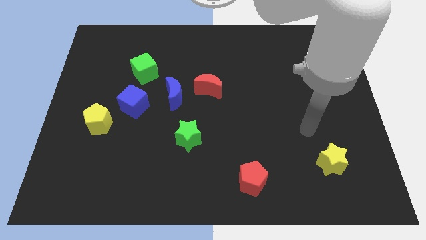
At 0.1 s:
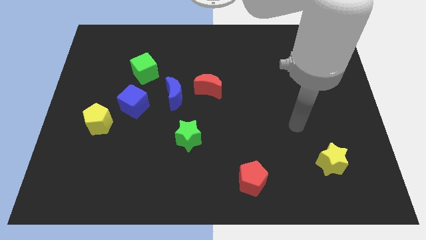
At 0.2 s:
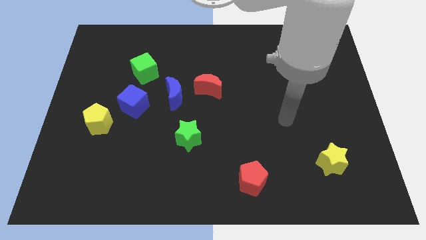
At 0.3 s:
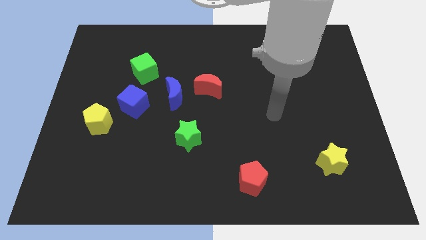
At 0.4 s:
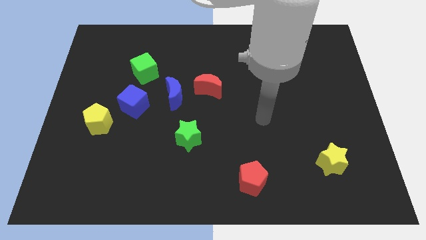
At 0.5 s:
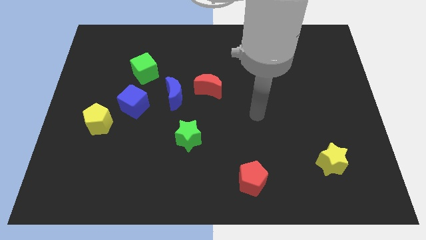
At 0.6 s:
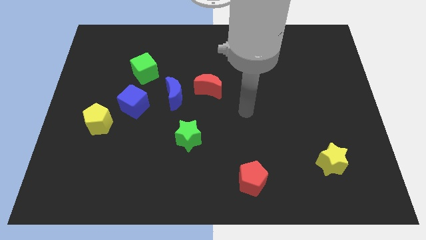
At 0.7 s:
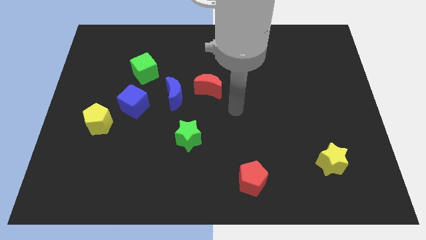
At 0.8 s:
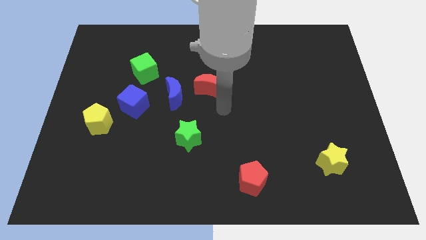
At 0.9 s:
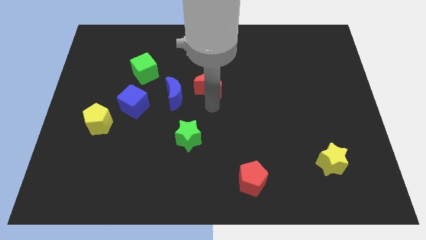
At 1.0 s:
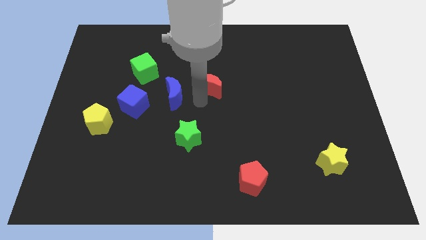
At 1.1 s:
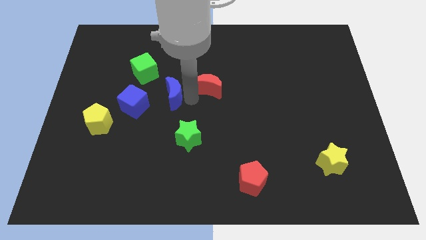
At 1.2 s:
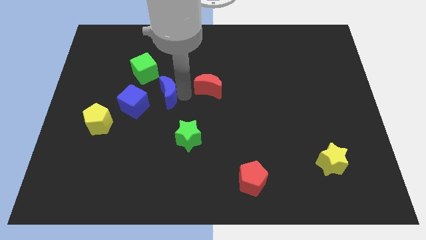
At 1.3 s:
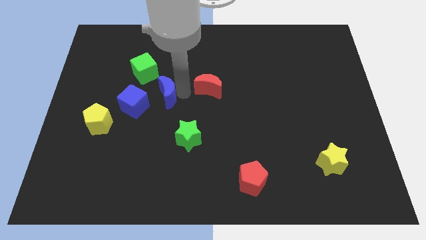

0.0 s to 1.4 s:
separate the red moon from the blue moon

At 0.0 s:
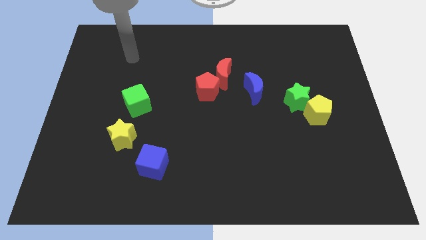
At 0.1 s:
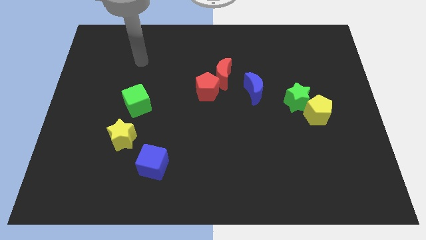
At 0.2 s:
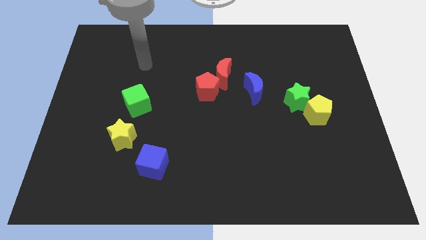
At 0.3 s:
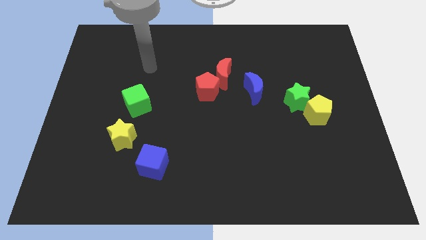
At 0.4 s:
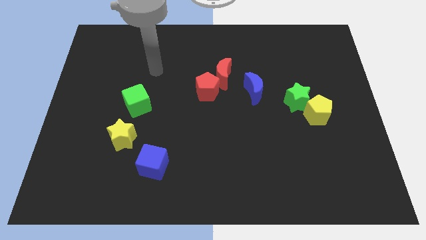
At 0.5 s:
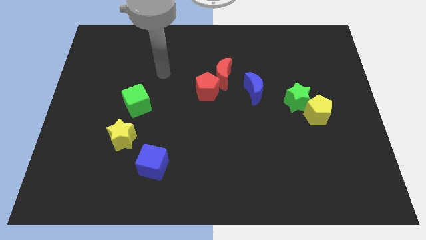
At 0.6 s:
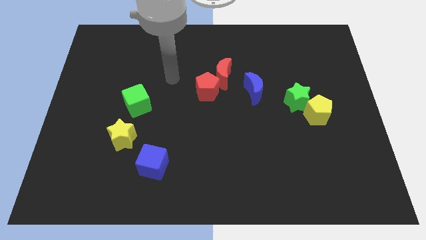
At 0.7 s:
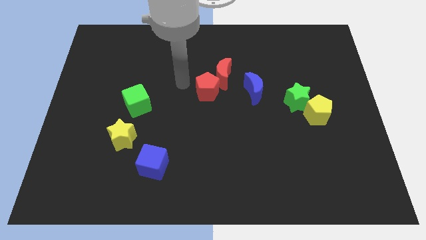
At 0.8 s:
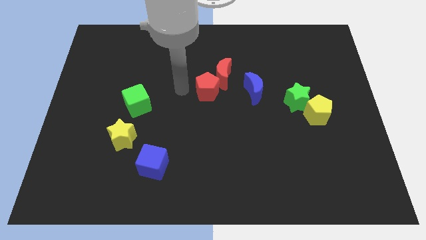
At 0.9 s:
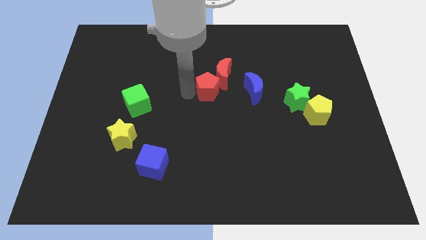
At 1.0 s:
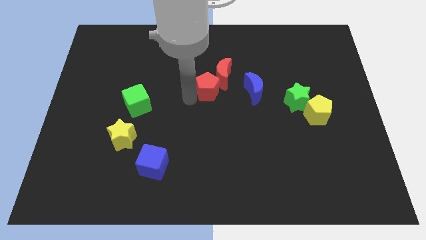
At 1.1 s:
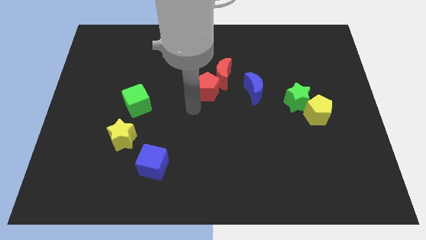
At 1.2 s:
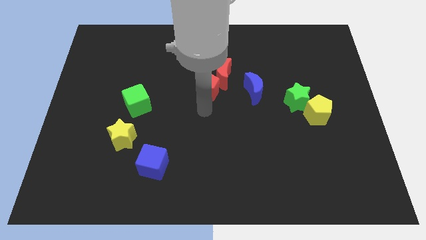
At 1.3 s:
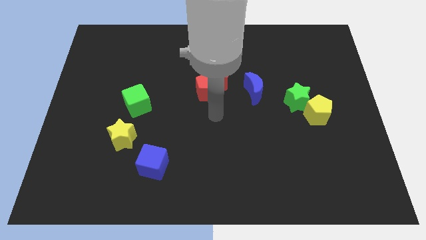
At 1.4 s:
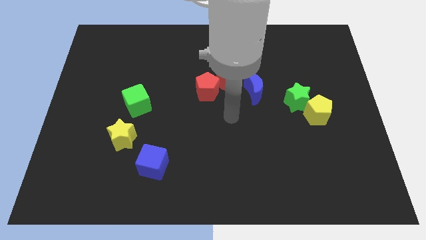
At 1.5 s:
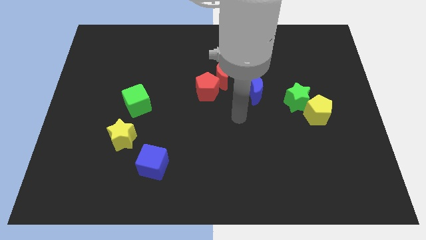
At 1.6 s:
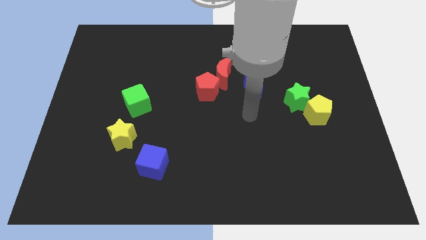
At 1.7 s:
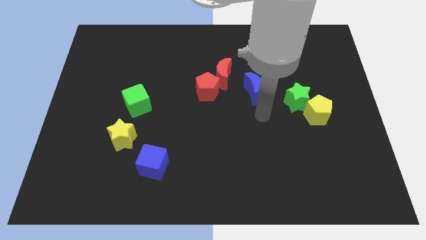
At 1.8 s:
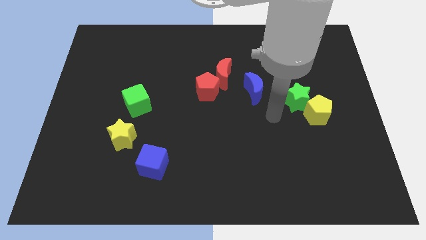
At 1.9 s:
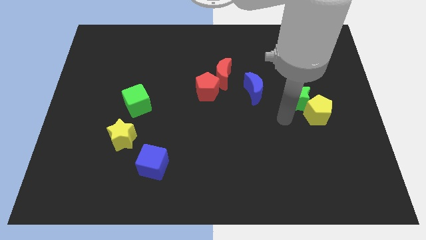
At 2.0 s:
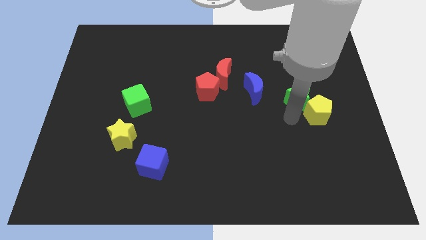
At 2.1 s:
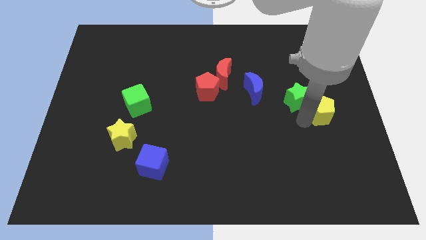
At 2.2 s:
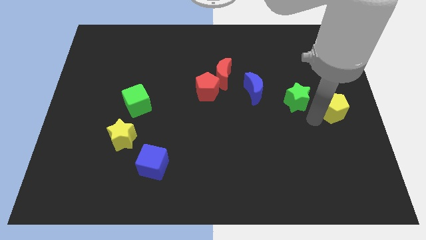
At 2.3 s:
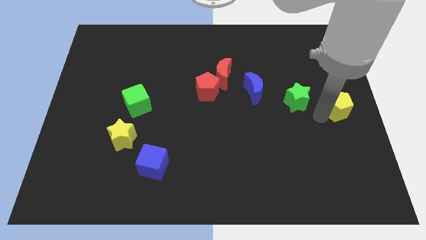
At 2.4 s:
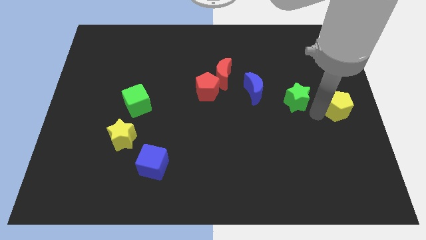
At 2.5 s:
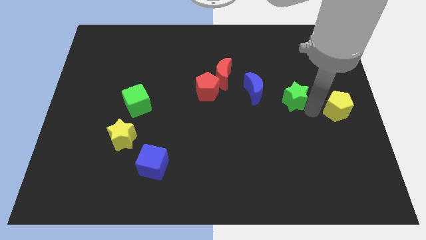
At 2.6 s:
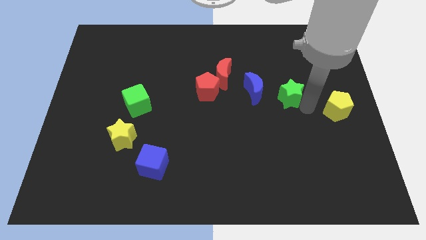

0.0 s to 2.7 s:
pull the green star apart from the yellow pentagon

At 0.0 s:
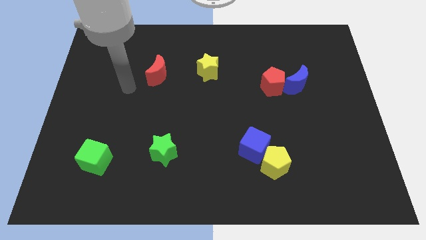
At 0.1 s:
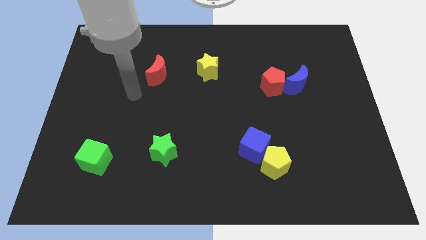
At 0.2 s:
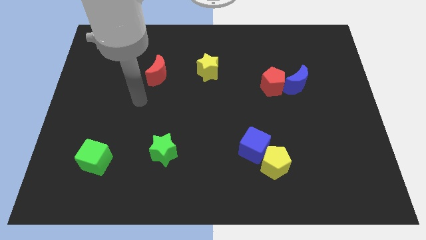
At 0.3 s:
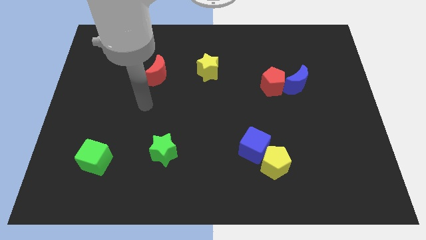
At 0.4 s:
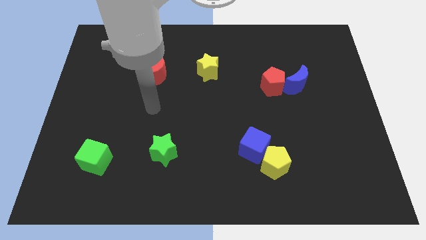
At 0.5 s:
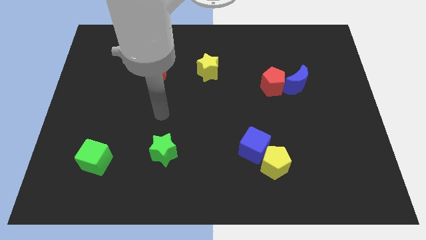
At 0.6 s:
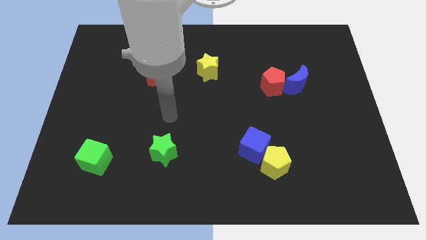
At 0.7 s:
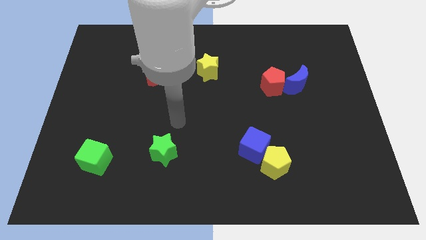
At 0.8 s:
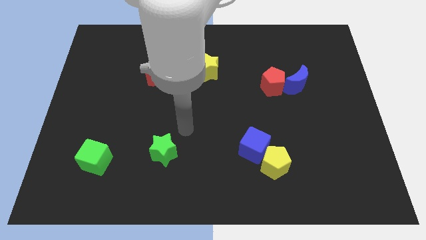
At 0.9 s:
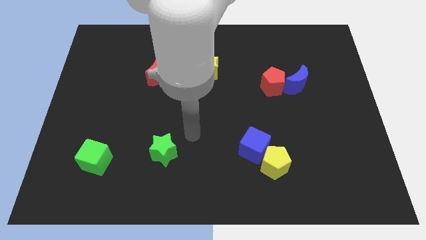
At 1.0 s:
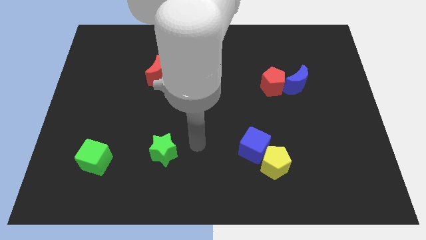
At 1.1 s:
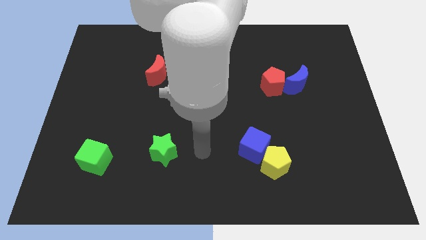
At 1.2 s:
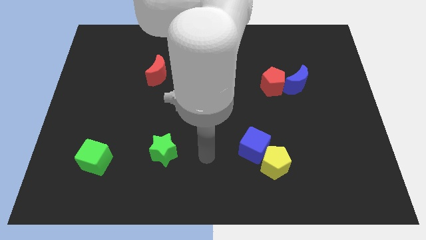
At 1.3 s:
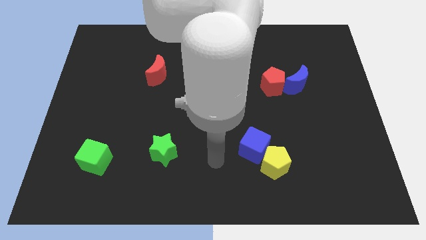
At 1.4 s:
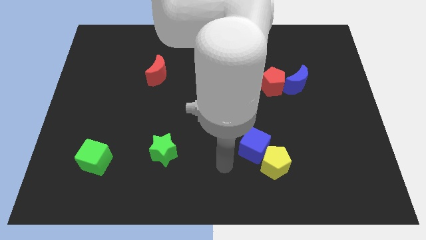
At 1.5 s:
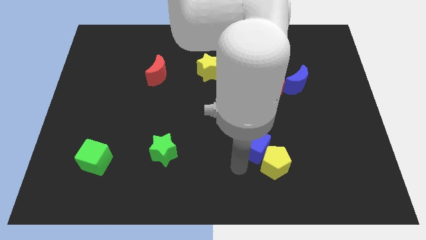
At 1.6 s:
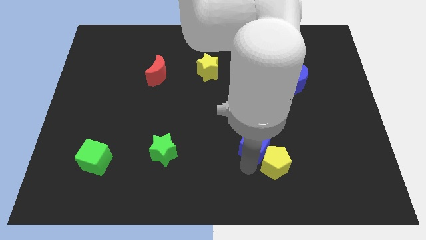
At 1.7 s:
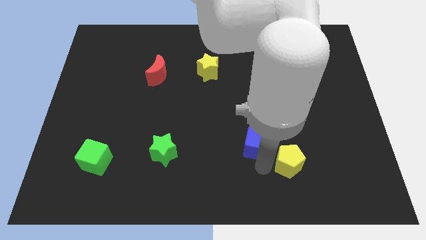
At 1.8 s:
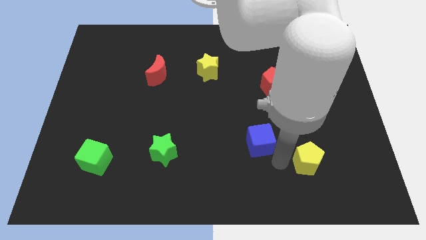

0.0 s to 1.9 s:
pull the blue cube apart from the yellow pentagon

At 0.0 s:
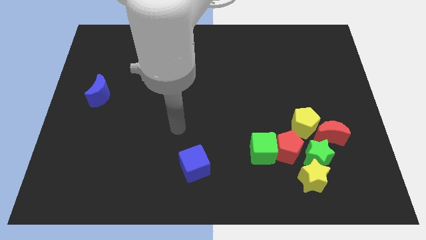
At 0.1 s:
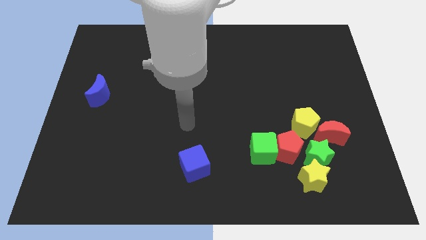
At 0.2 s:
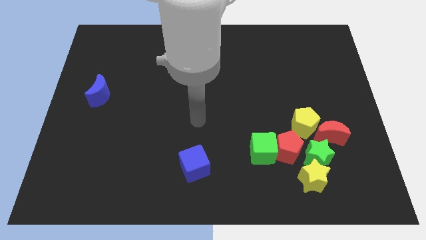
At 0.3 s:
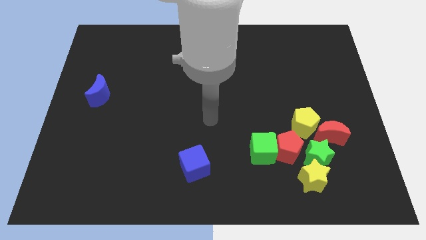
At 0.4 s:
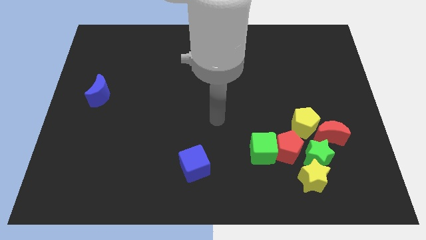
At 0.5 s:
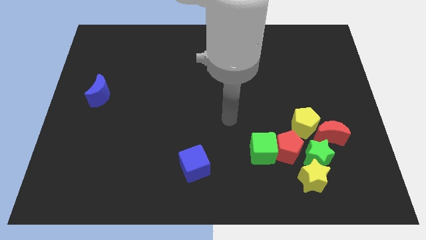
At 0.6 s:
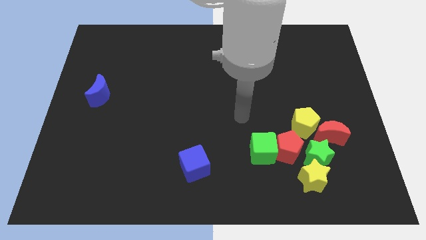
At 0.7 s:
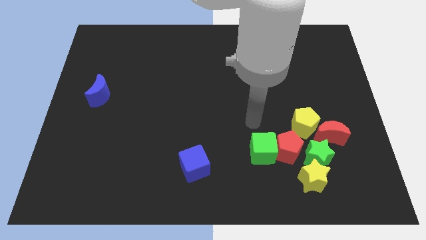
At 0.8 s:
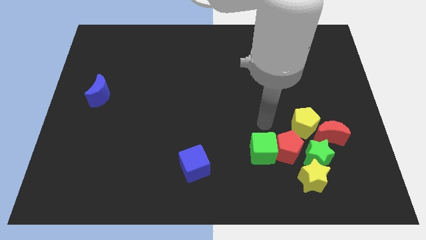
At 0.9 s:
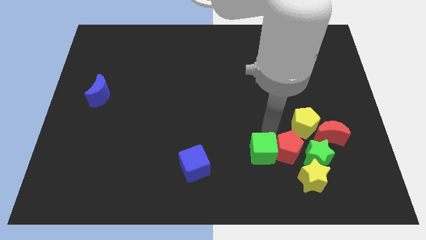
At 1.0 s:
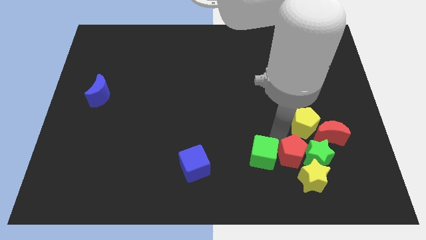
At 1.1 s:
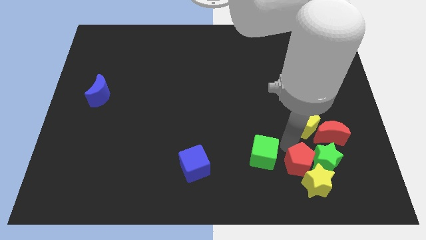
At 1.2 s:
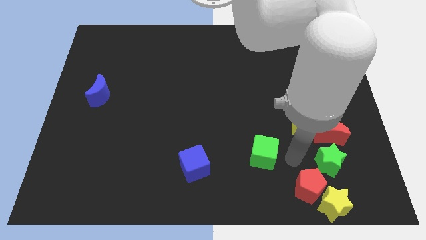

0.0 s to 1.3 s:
pull the green cube apart from the red pentagon

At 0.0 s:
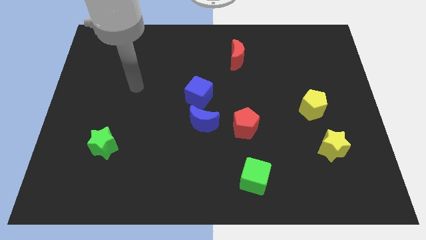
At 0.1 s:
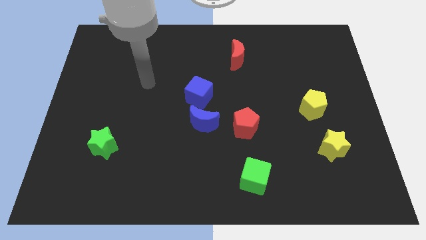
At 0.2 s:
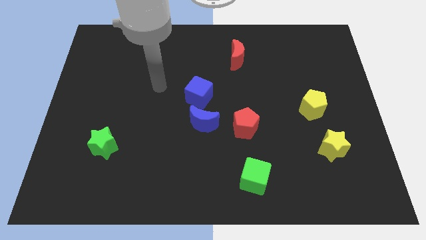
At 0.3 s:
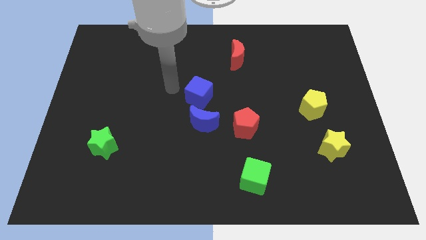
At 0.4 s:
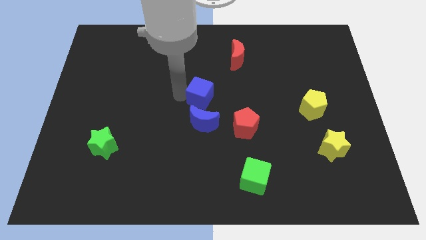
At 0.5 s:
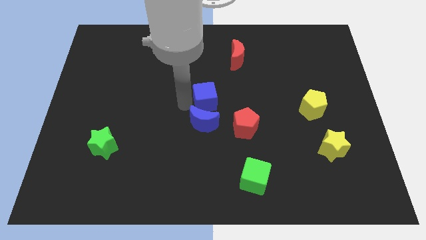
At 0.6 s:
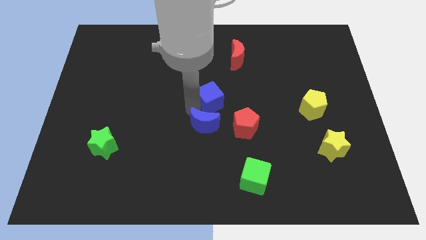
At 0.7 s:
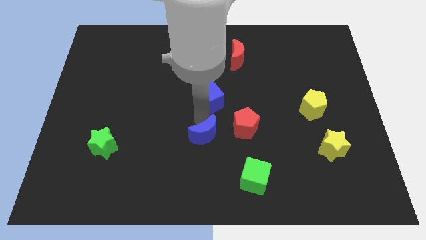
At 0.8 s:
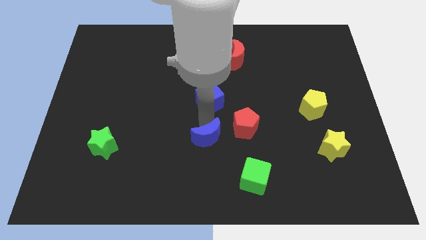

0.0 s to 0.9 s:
move the blue cube away from the blue moon

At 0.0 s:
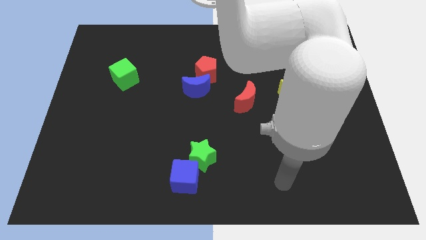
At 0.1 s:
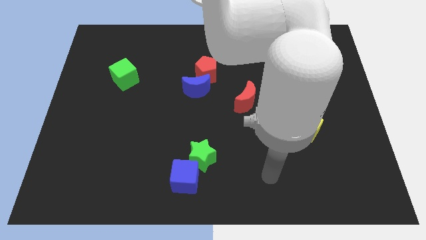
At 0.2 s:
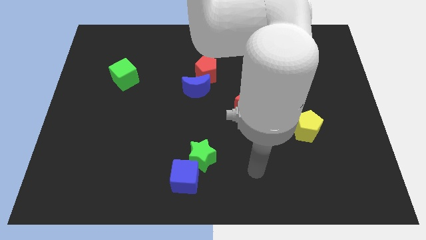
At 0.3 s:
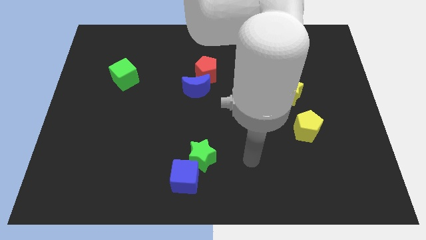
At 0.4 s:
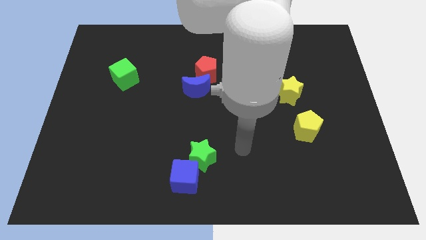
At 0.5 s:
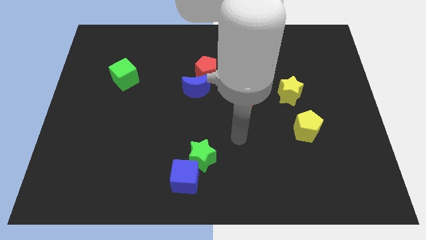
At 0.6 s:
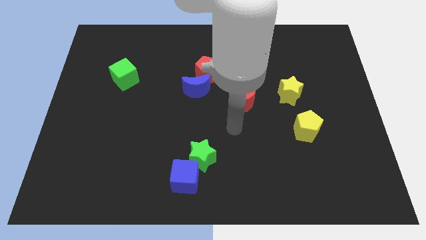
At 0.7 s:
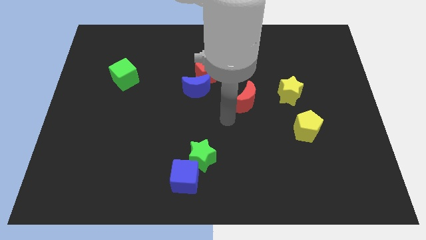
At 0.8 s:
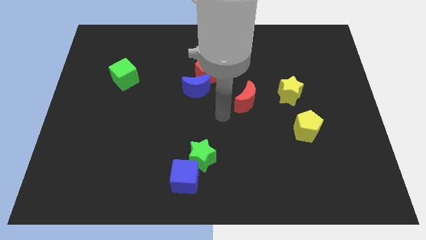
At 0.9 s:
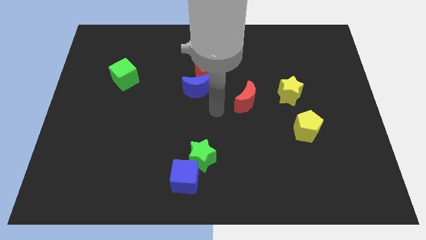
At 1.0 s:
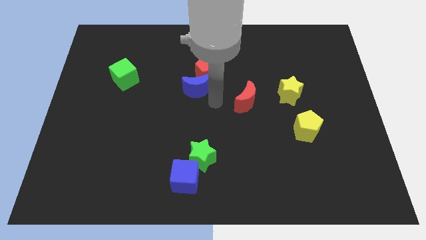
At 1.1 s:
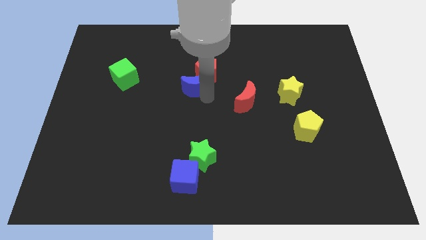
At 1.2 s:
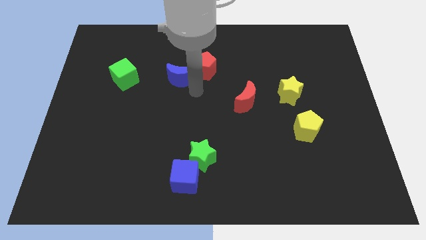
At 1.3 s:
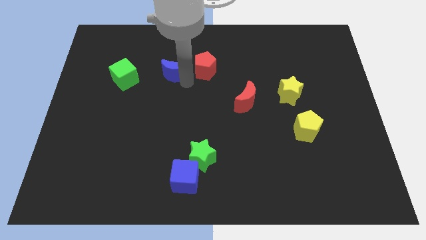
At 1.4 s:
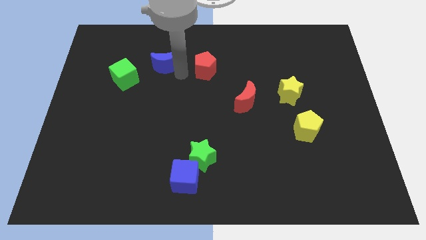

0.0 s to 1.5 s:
separate the red pentagon from the blue moon
